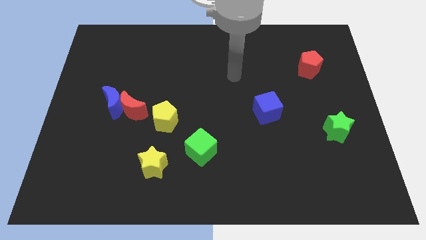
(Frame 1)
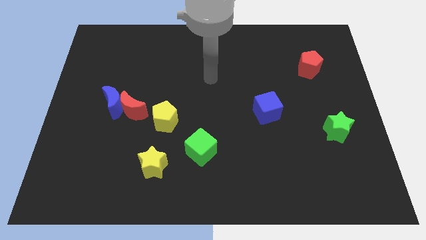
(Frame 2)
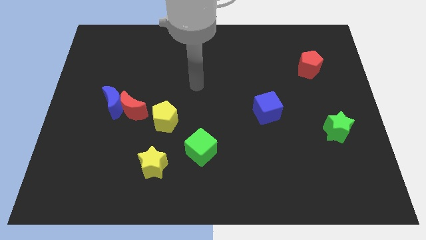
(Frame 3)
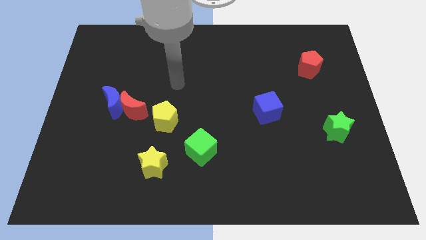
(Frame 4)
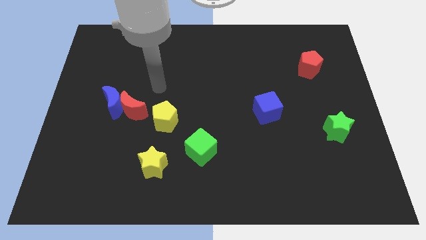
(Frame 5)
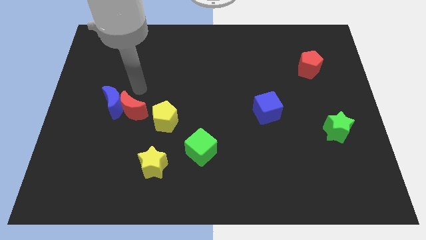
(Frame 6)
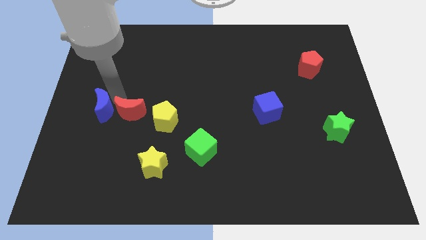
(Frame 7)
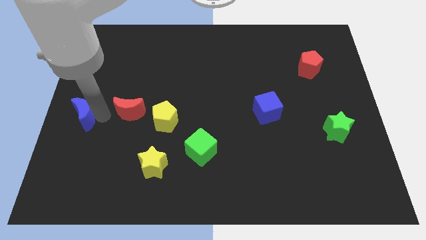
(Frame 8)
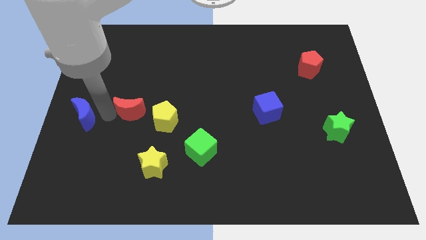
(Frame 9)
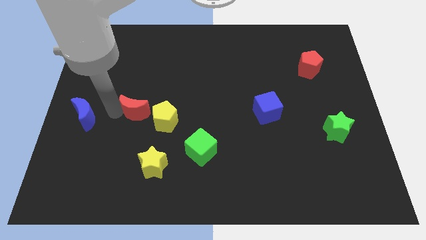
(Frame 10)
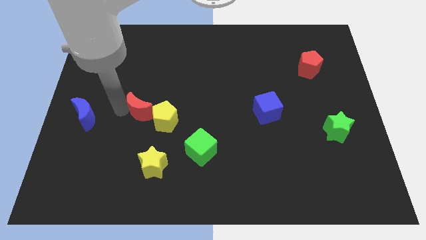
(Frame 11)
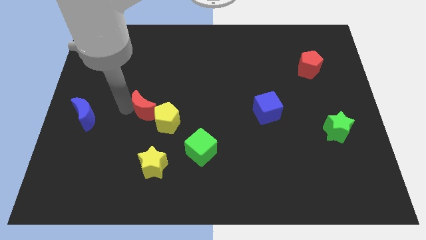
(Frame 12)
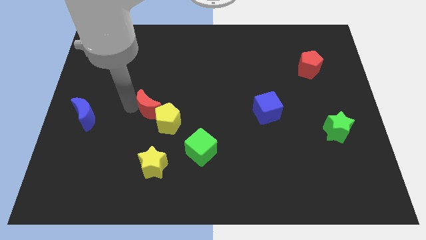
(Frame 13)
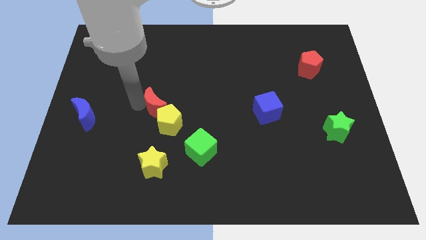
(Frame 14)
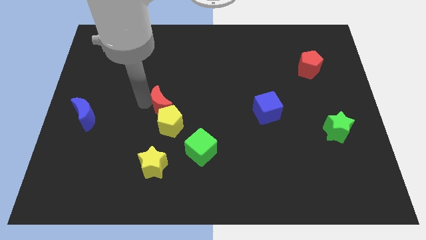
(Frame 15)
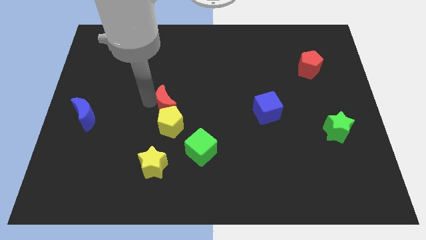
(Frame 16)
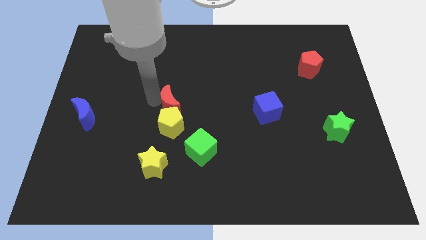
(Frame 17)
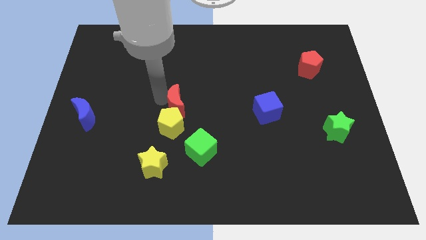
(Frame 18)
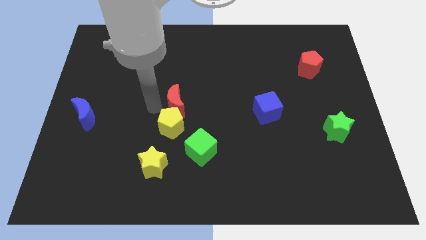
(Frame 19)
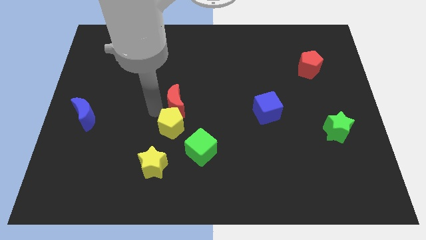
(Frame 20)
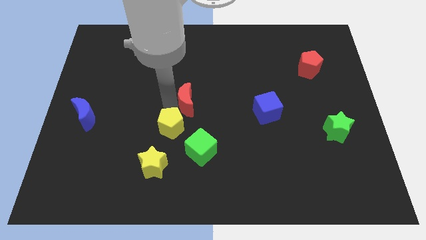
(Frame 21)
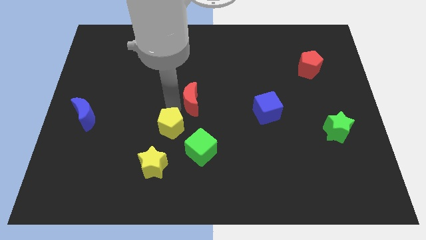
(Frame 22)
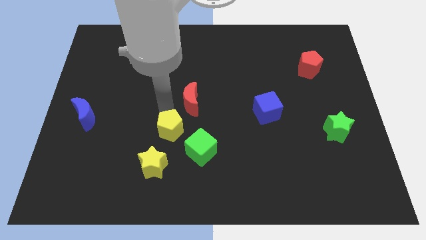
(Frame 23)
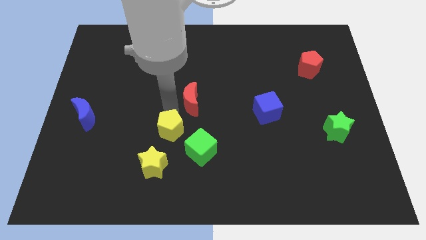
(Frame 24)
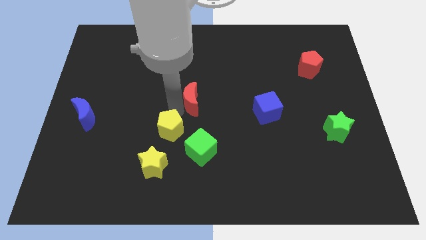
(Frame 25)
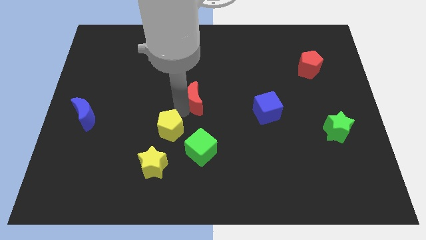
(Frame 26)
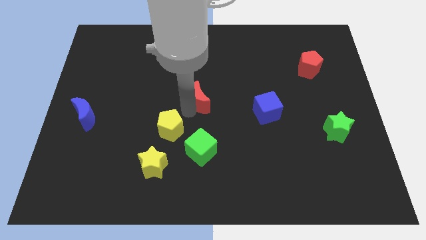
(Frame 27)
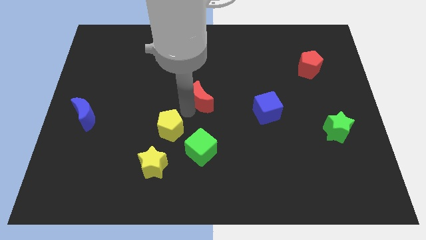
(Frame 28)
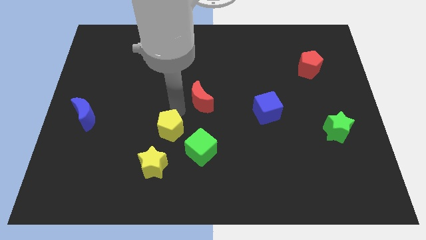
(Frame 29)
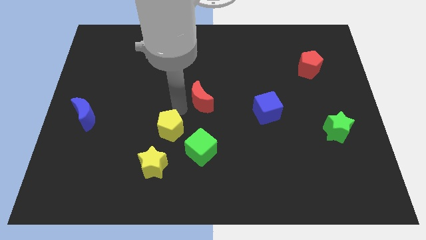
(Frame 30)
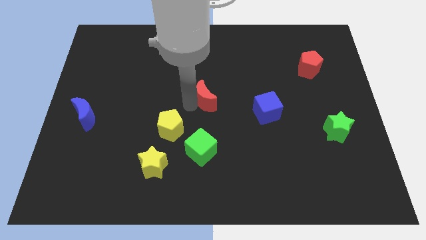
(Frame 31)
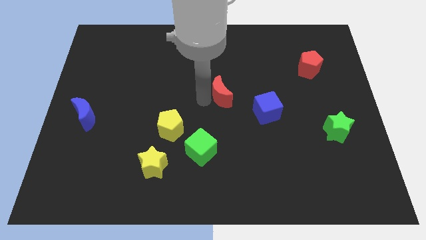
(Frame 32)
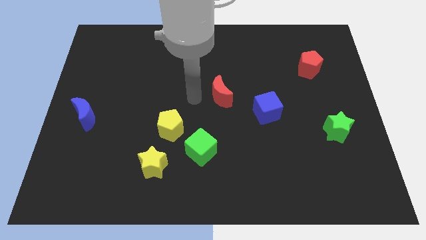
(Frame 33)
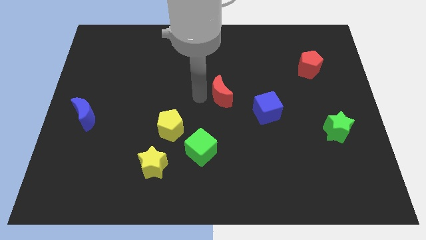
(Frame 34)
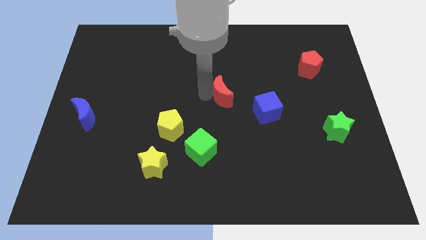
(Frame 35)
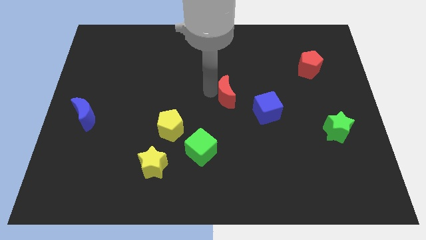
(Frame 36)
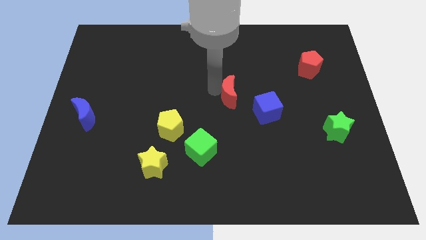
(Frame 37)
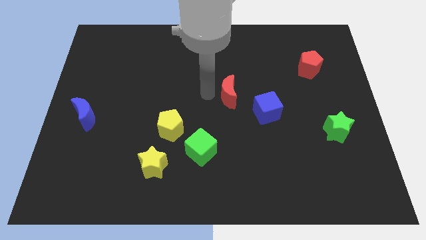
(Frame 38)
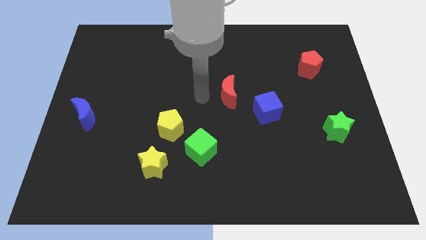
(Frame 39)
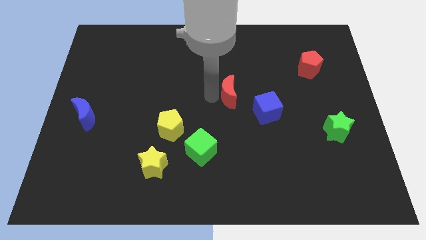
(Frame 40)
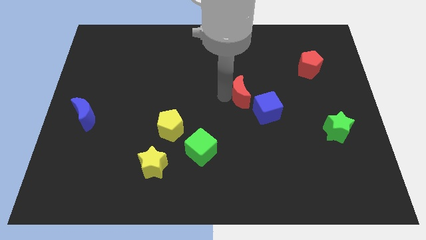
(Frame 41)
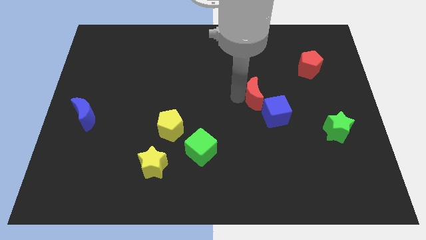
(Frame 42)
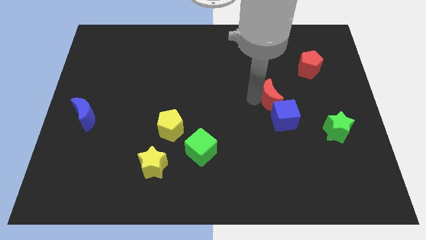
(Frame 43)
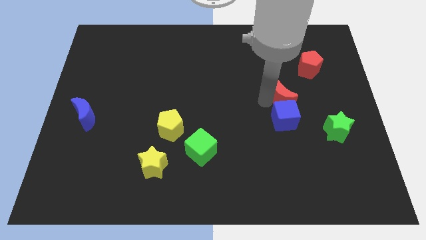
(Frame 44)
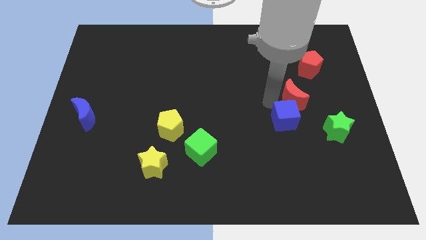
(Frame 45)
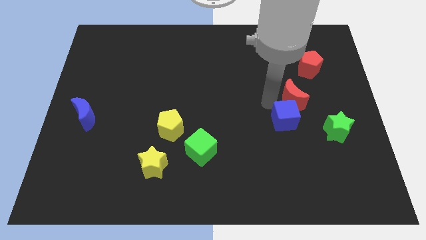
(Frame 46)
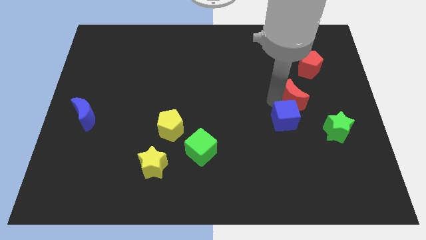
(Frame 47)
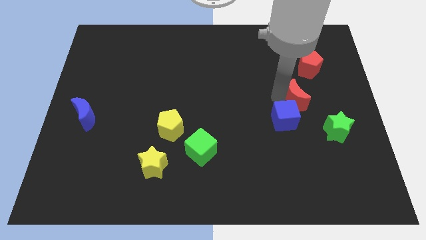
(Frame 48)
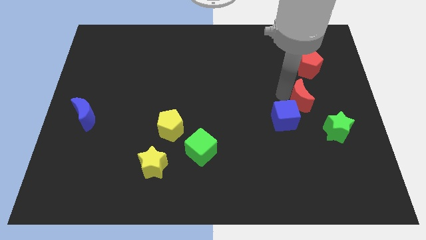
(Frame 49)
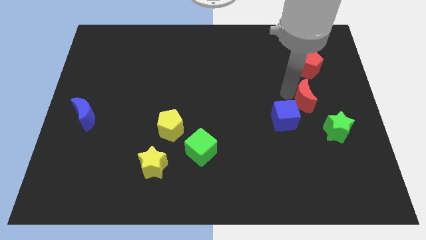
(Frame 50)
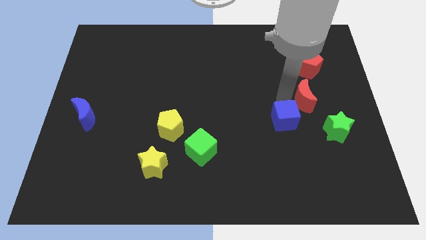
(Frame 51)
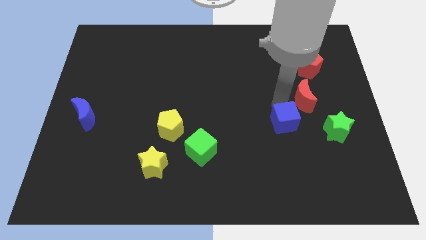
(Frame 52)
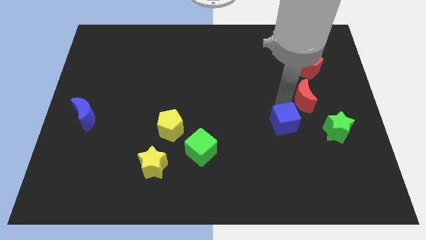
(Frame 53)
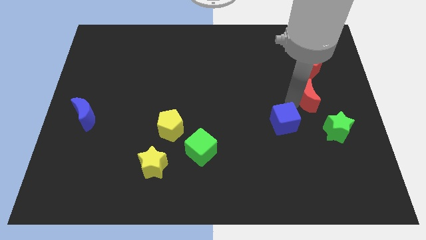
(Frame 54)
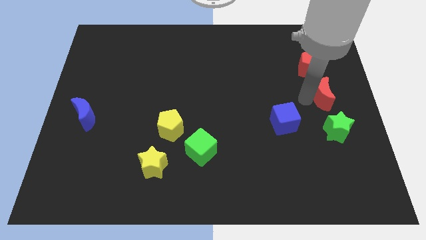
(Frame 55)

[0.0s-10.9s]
slide the red moon to the right side of the board

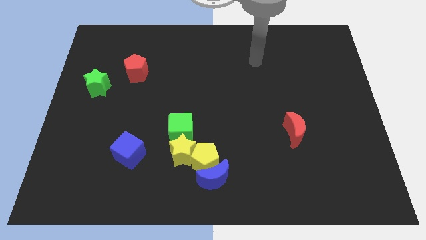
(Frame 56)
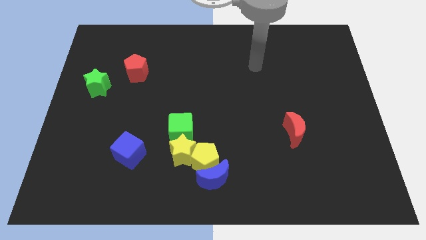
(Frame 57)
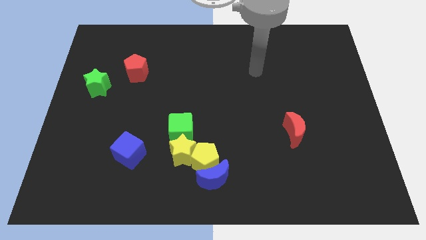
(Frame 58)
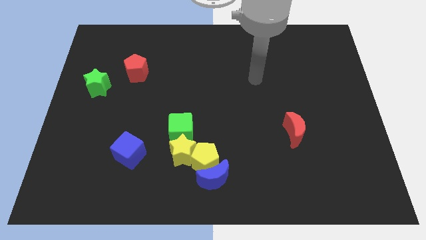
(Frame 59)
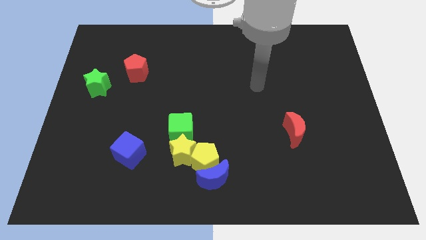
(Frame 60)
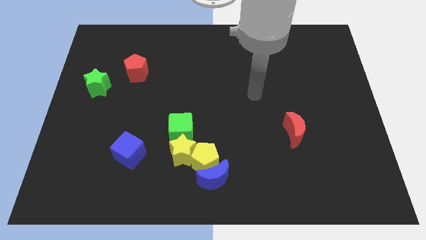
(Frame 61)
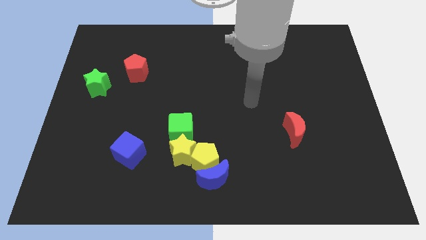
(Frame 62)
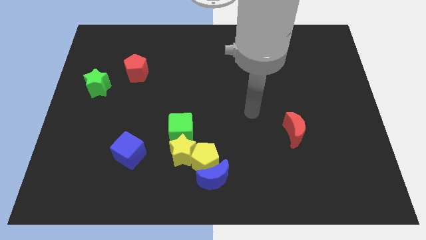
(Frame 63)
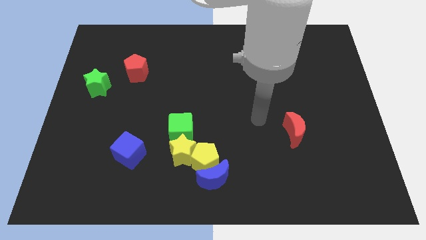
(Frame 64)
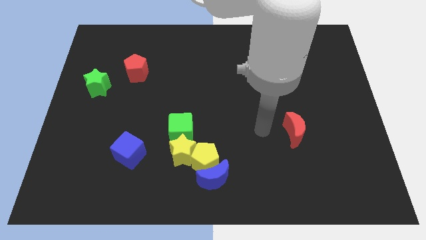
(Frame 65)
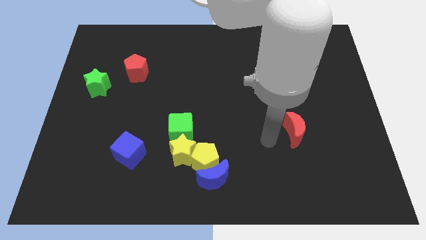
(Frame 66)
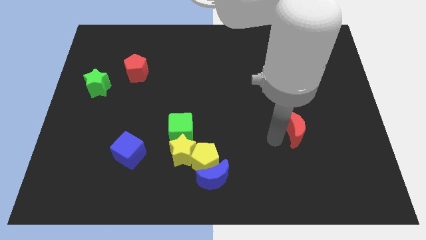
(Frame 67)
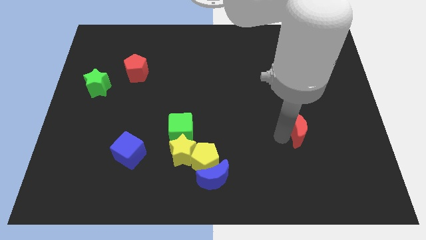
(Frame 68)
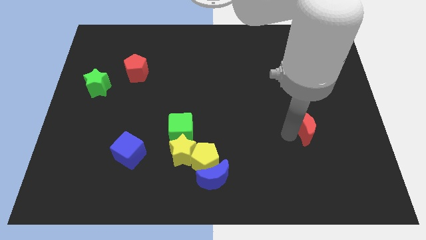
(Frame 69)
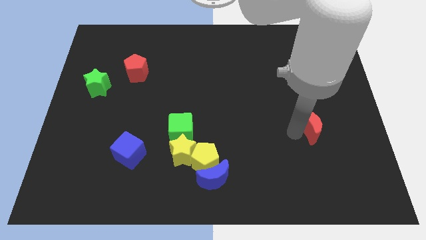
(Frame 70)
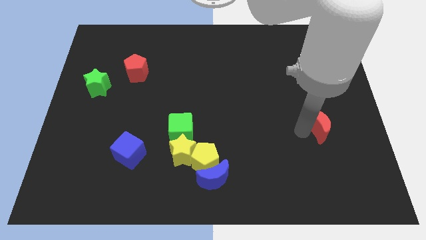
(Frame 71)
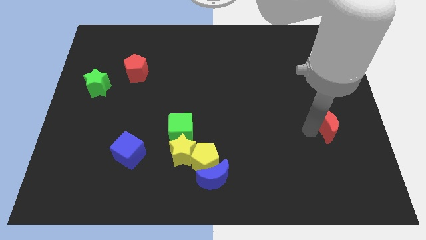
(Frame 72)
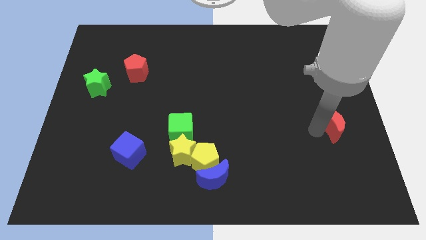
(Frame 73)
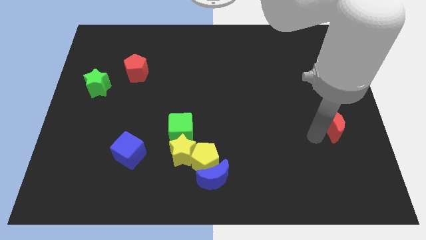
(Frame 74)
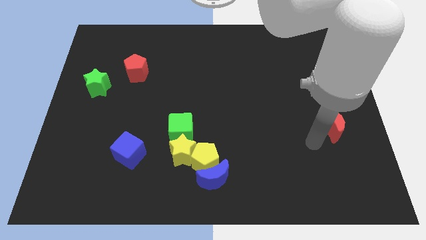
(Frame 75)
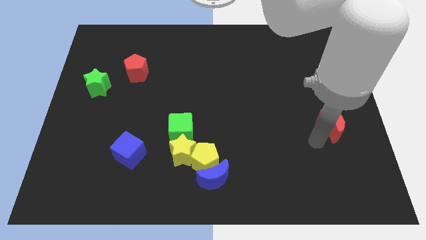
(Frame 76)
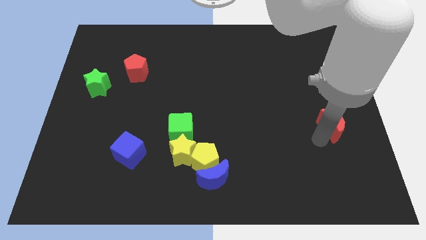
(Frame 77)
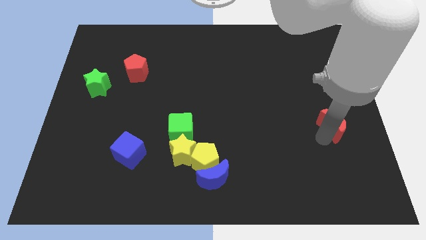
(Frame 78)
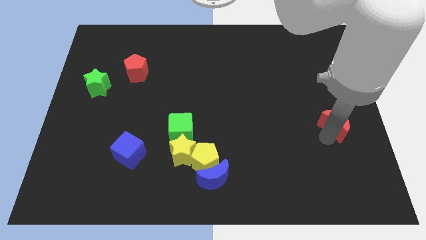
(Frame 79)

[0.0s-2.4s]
push the red moon to the right side
